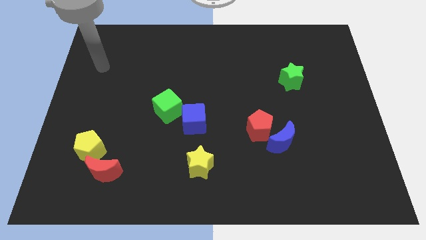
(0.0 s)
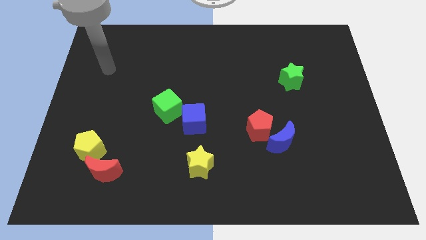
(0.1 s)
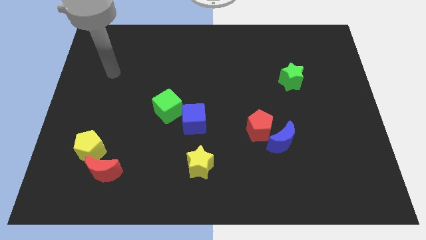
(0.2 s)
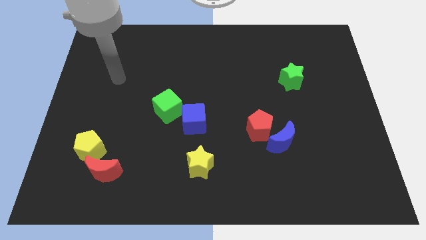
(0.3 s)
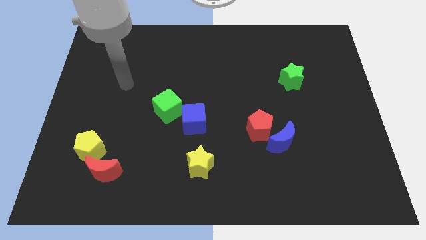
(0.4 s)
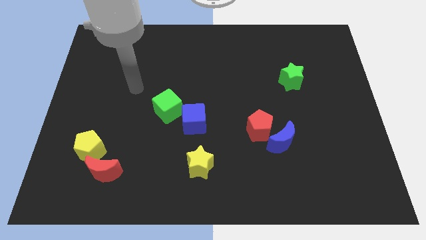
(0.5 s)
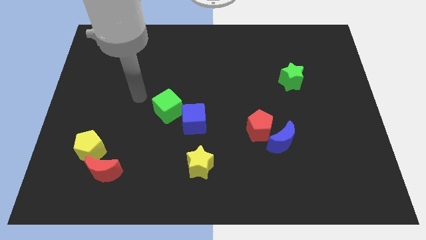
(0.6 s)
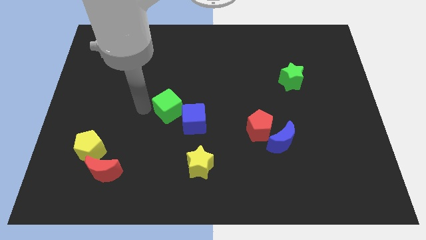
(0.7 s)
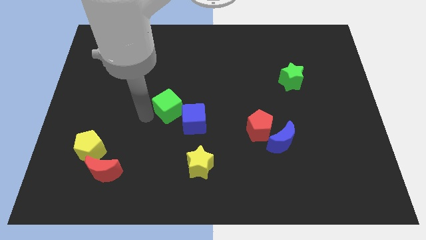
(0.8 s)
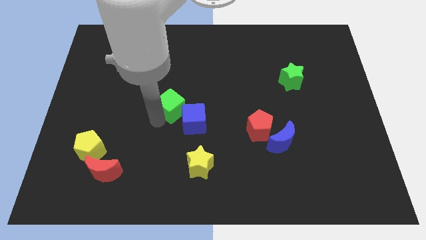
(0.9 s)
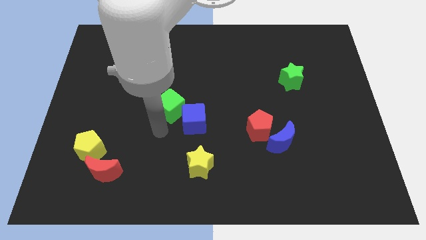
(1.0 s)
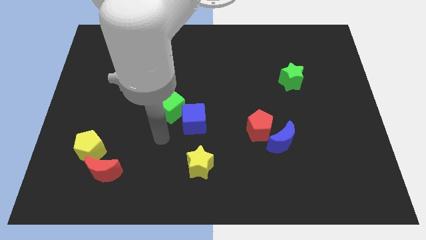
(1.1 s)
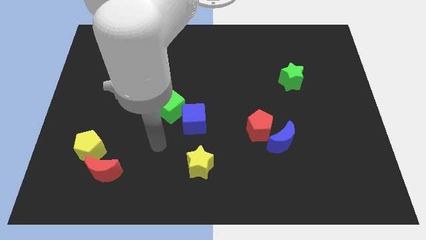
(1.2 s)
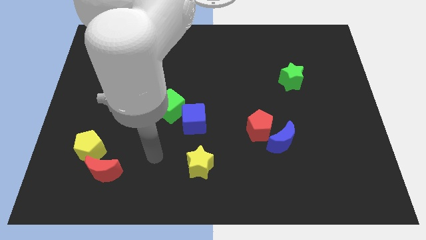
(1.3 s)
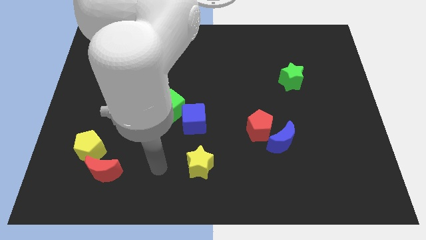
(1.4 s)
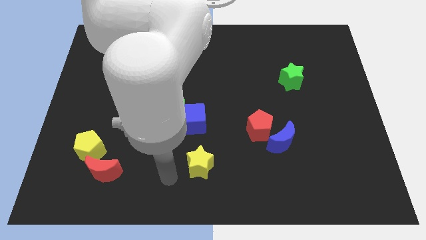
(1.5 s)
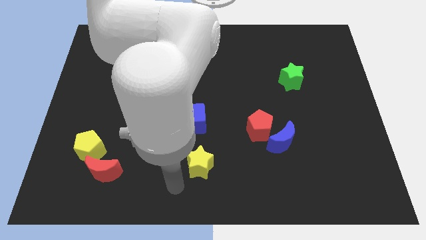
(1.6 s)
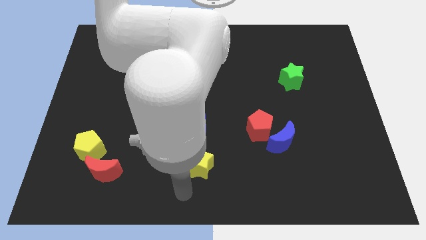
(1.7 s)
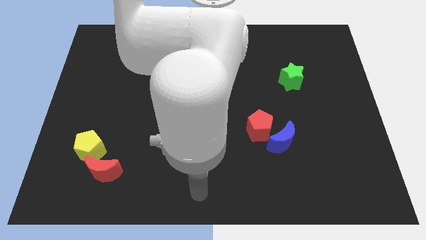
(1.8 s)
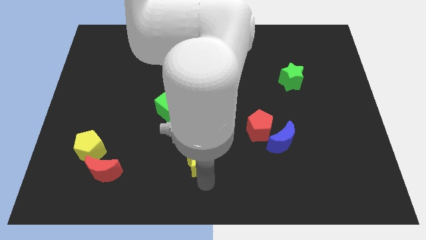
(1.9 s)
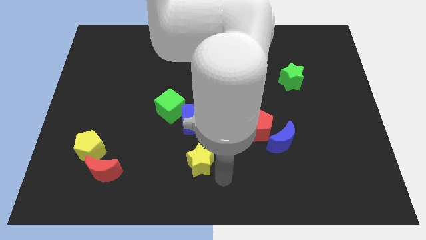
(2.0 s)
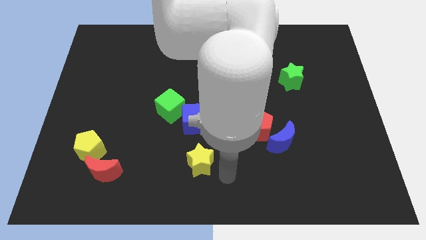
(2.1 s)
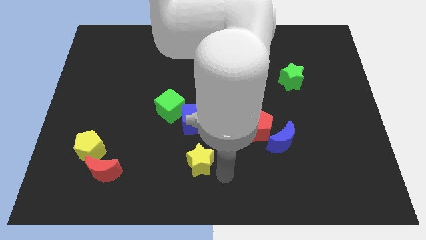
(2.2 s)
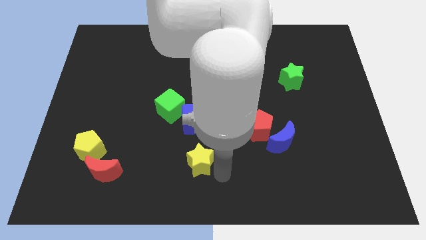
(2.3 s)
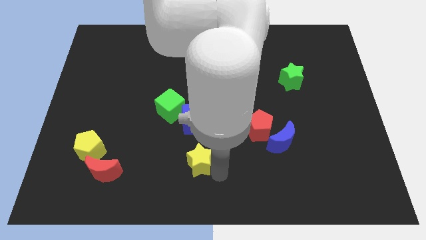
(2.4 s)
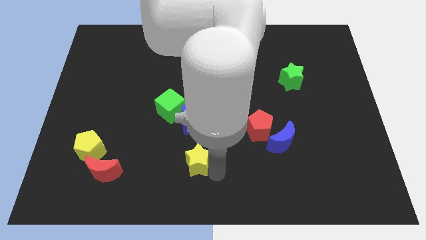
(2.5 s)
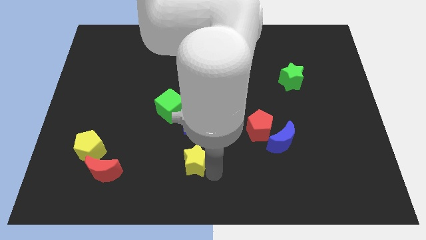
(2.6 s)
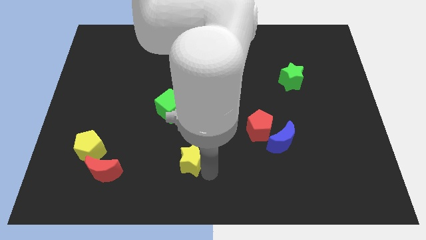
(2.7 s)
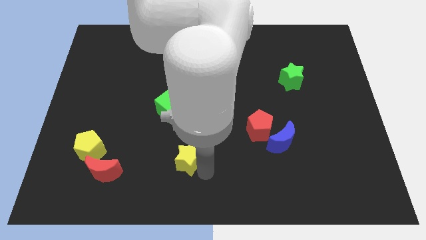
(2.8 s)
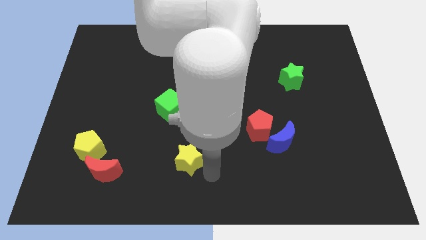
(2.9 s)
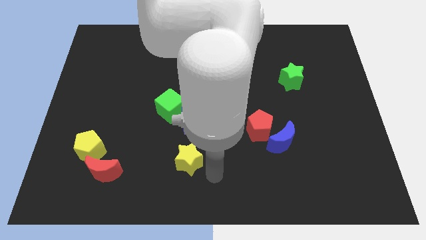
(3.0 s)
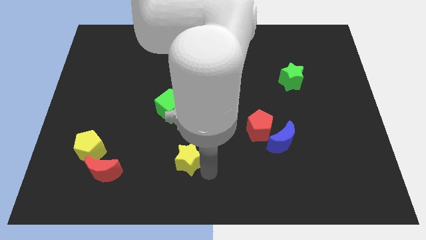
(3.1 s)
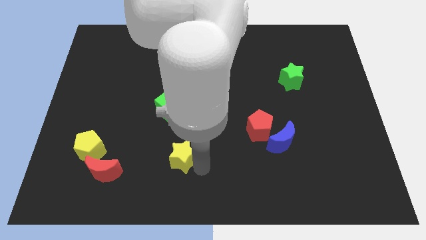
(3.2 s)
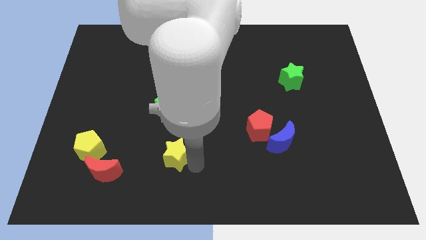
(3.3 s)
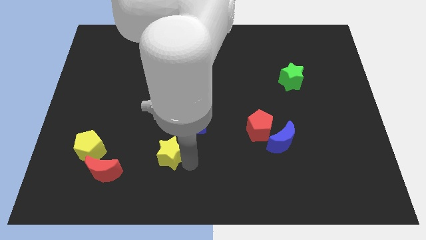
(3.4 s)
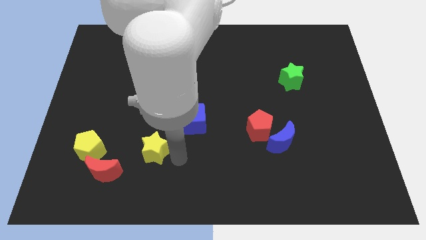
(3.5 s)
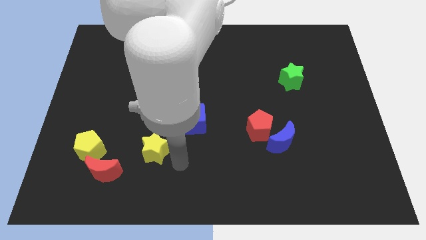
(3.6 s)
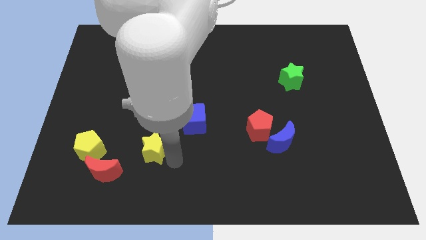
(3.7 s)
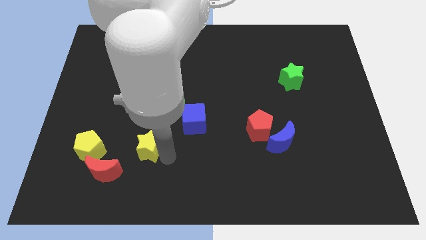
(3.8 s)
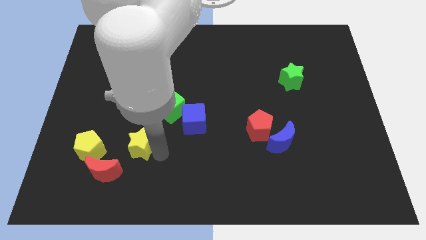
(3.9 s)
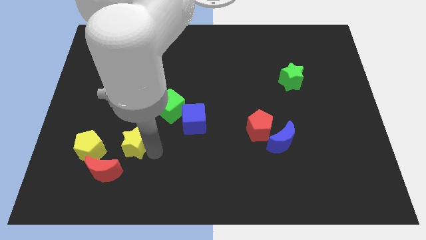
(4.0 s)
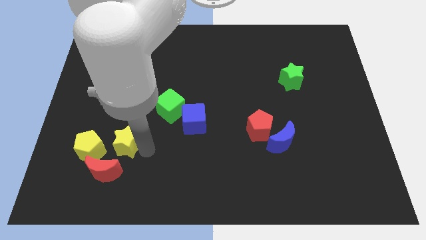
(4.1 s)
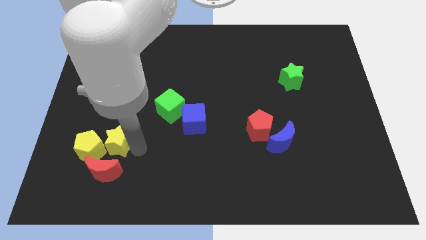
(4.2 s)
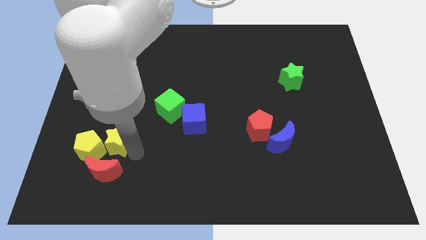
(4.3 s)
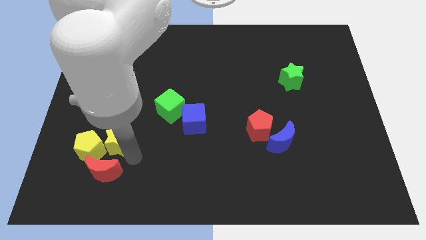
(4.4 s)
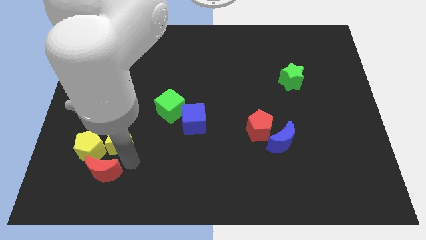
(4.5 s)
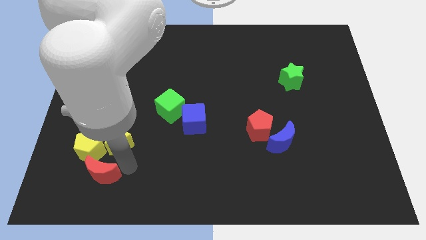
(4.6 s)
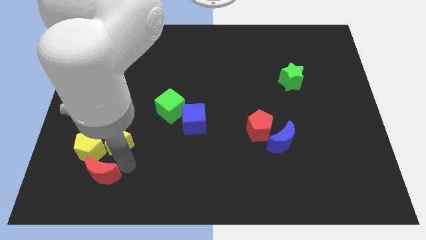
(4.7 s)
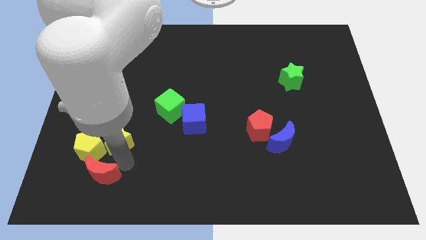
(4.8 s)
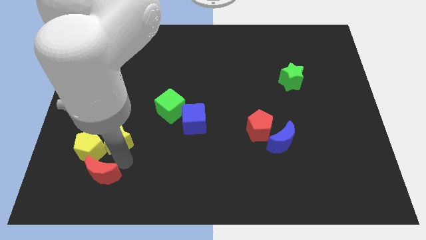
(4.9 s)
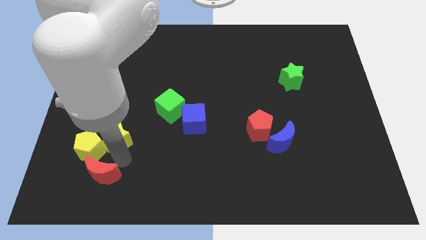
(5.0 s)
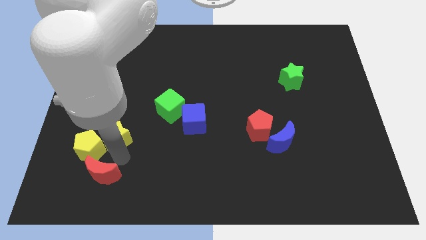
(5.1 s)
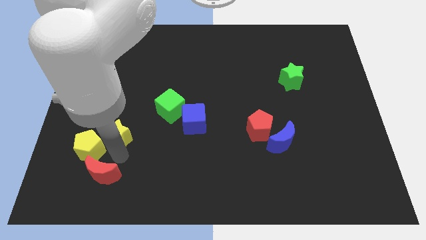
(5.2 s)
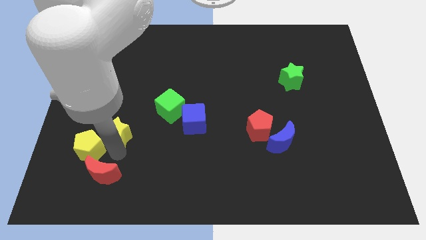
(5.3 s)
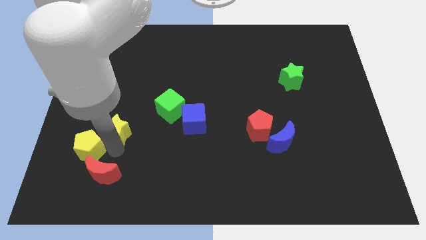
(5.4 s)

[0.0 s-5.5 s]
put the yellow star to the top side of the yellow pentagon
